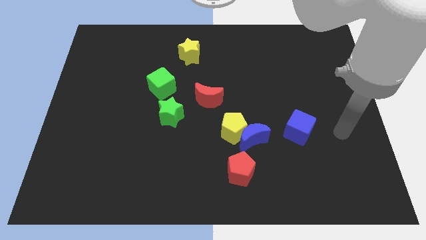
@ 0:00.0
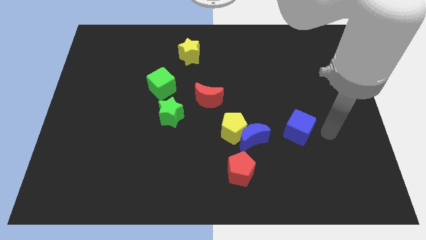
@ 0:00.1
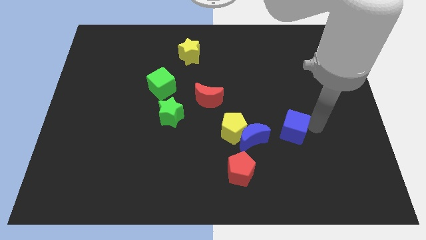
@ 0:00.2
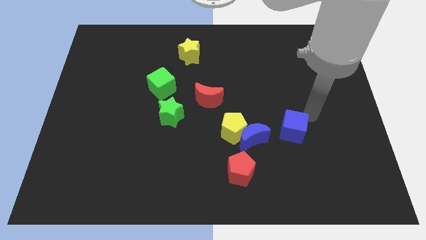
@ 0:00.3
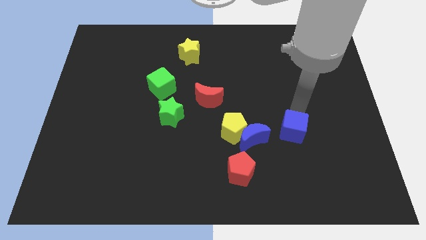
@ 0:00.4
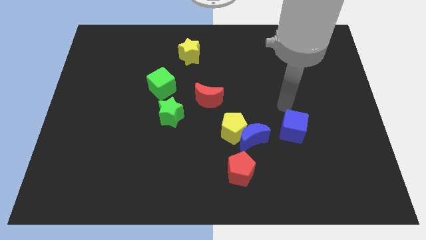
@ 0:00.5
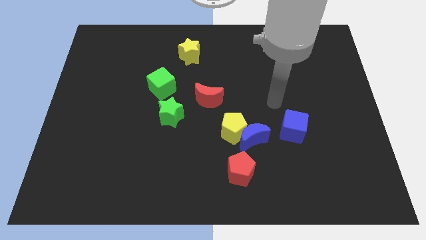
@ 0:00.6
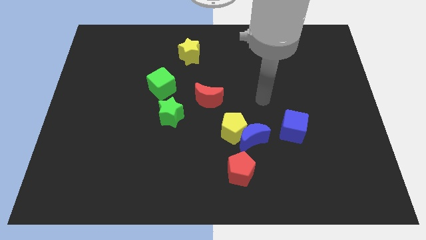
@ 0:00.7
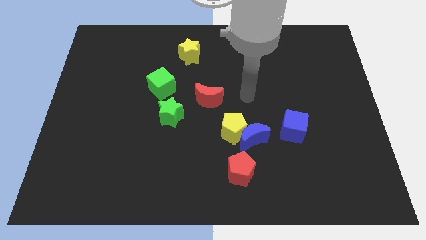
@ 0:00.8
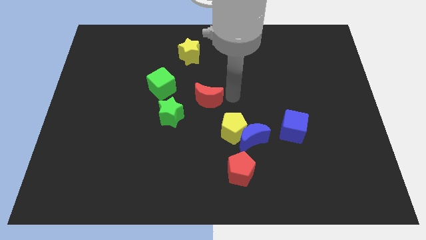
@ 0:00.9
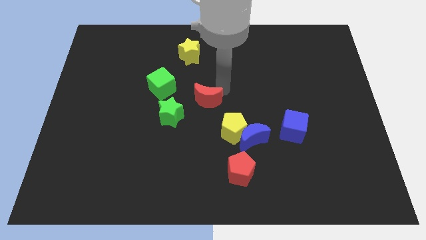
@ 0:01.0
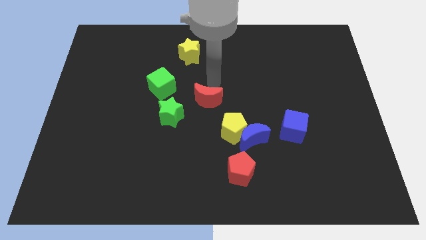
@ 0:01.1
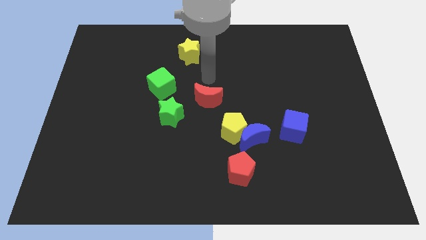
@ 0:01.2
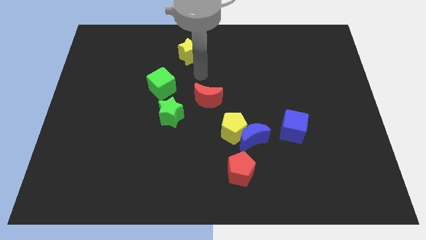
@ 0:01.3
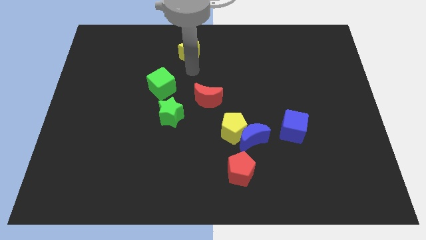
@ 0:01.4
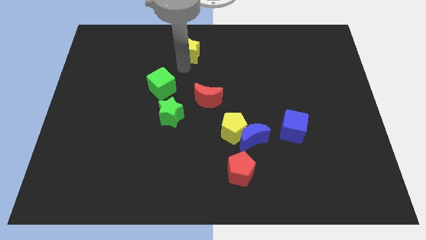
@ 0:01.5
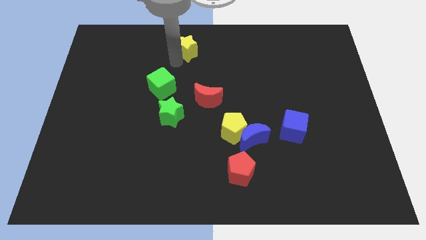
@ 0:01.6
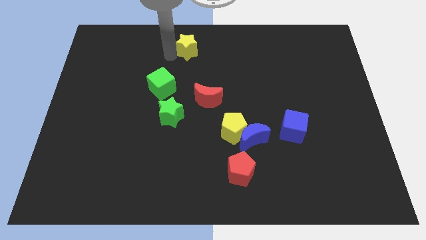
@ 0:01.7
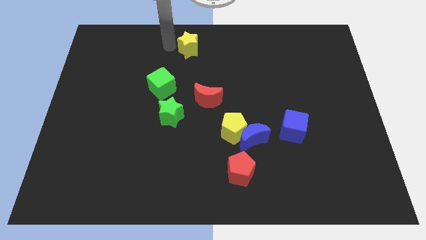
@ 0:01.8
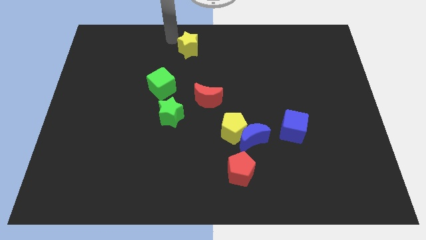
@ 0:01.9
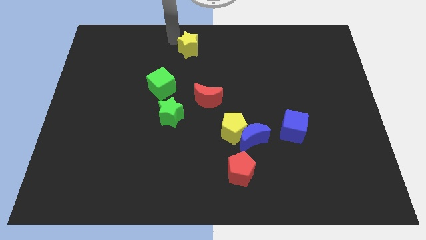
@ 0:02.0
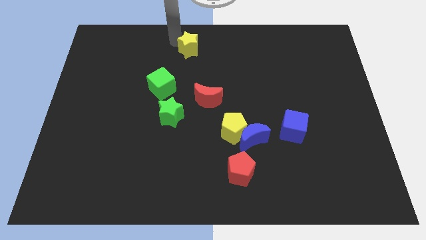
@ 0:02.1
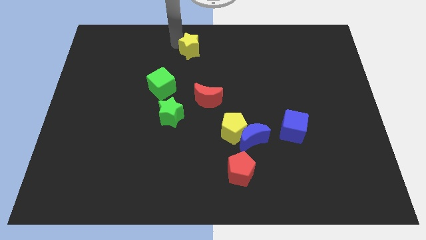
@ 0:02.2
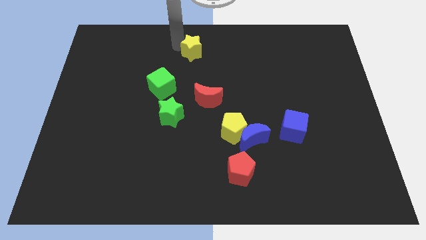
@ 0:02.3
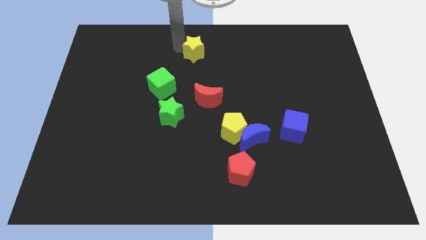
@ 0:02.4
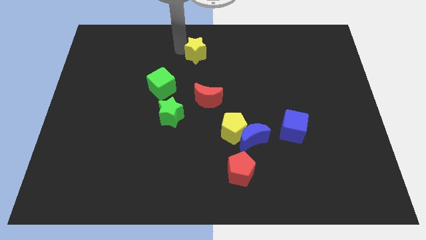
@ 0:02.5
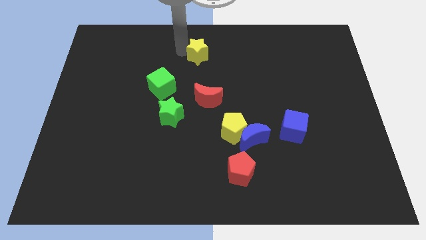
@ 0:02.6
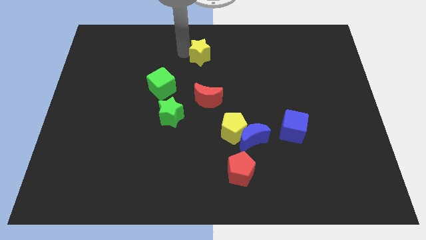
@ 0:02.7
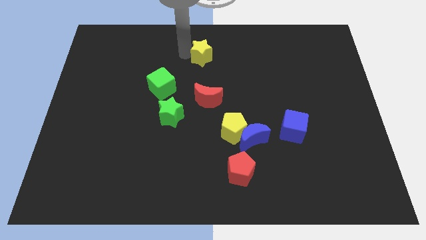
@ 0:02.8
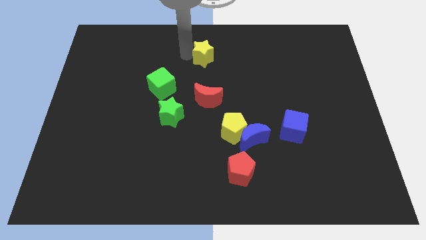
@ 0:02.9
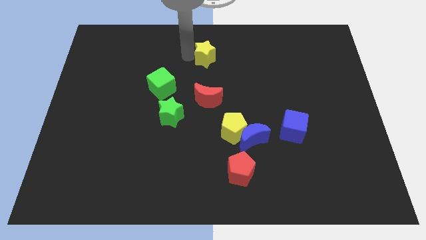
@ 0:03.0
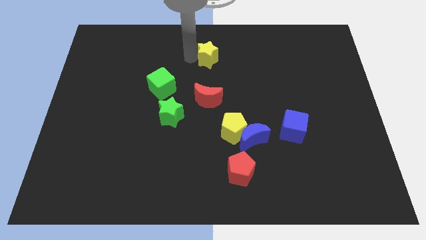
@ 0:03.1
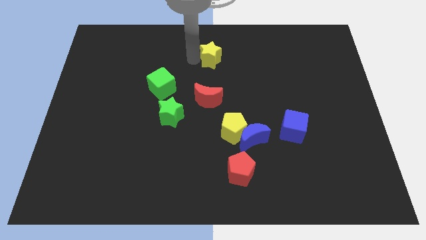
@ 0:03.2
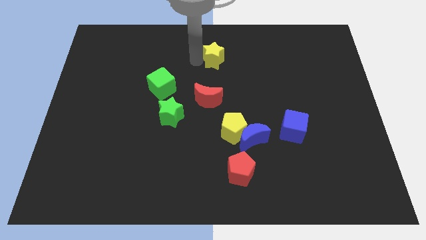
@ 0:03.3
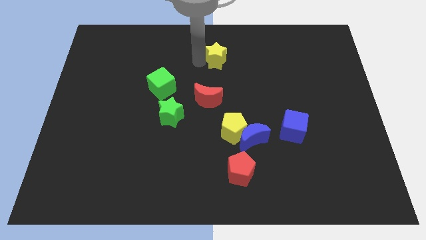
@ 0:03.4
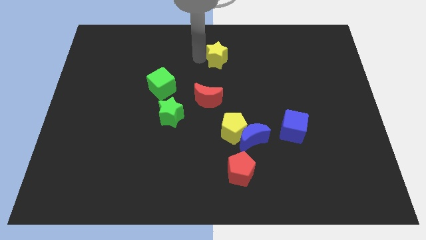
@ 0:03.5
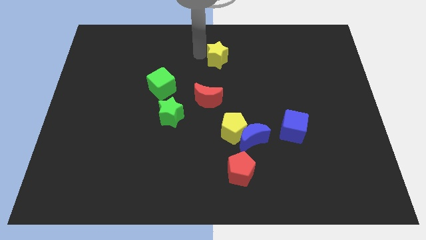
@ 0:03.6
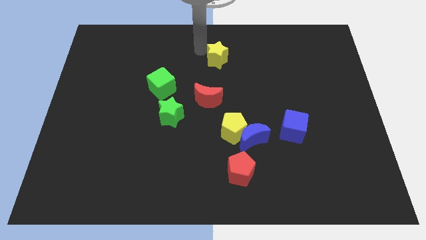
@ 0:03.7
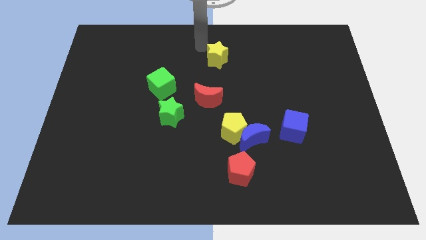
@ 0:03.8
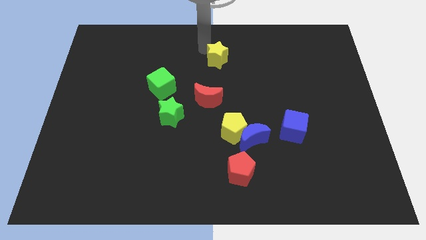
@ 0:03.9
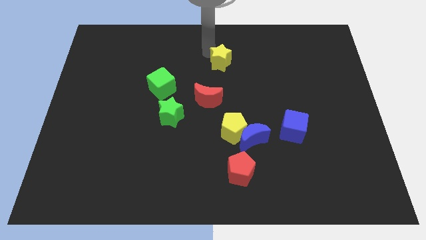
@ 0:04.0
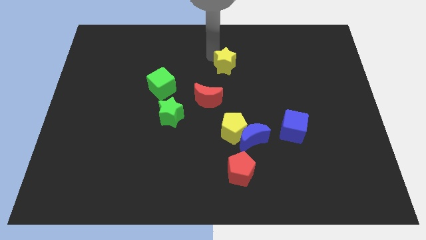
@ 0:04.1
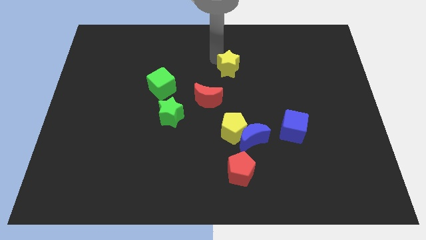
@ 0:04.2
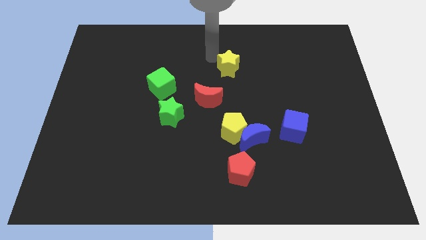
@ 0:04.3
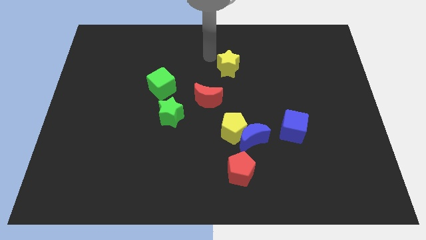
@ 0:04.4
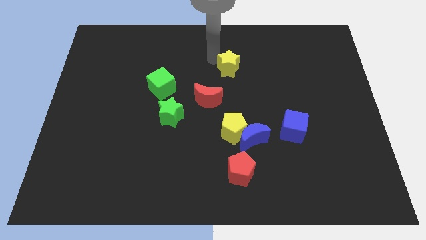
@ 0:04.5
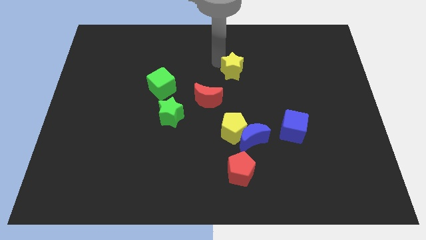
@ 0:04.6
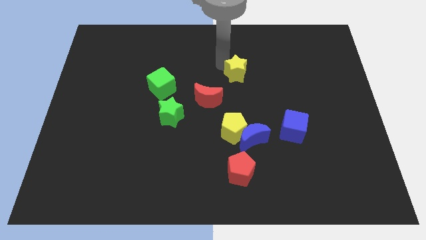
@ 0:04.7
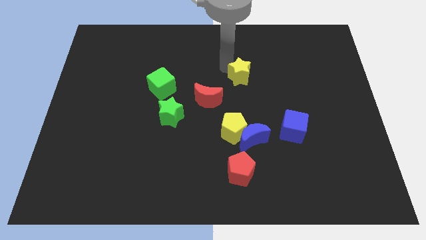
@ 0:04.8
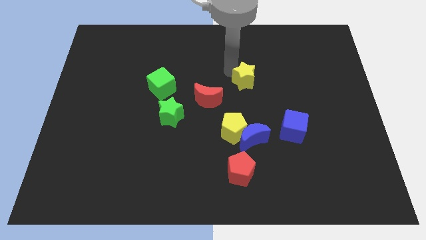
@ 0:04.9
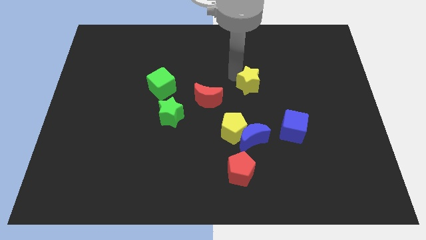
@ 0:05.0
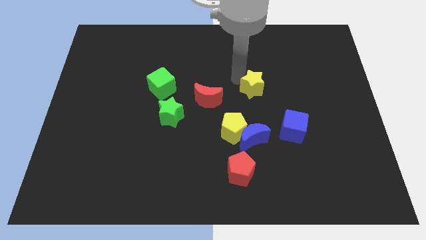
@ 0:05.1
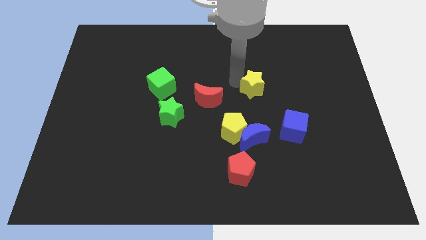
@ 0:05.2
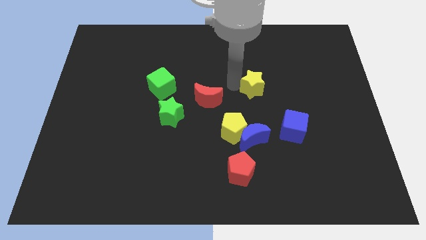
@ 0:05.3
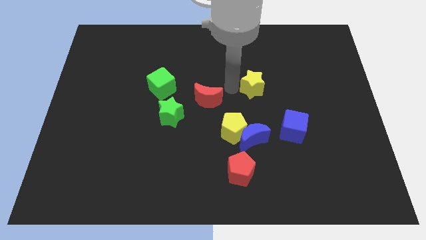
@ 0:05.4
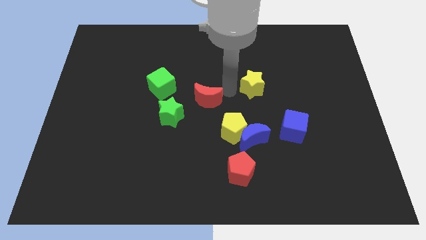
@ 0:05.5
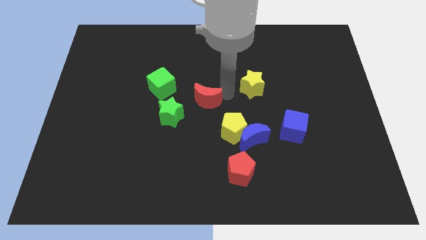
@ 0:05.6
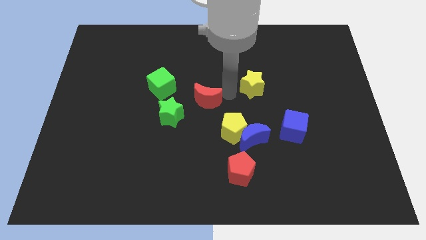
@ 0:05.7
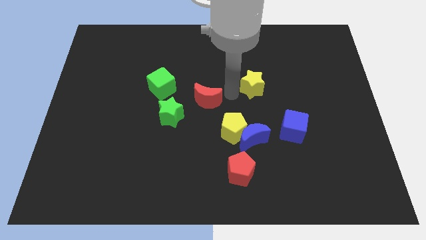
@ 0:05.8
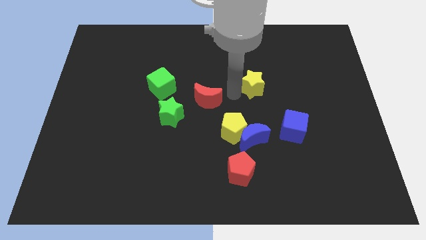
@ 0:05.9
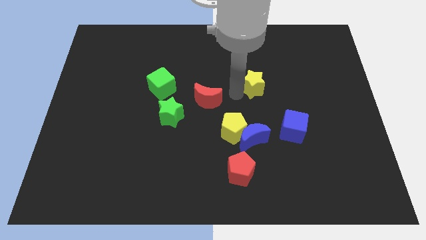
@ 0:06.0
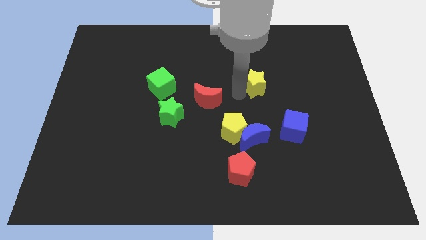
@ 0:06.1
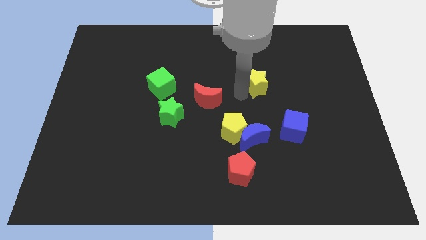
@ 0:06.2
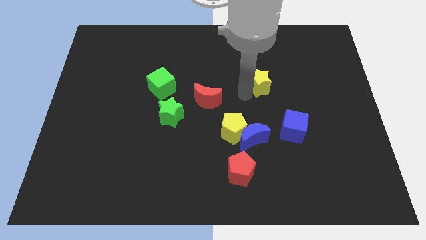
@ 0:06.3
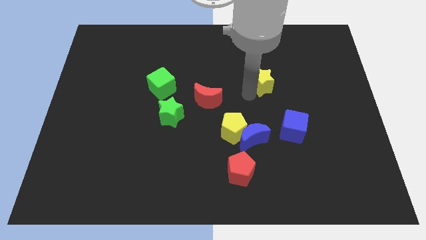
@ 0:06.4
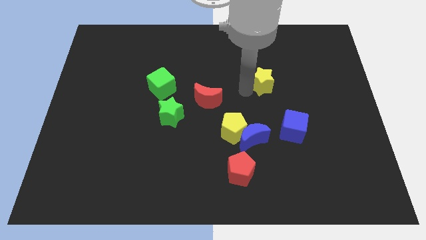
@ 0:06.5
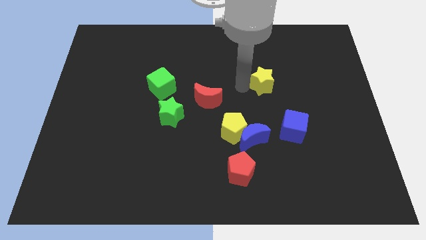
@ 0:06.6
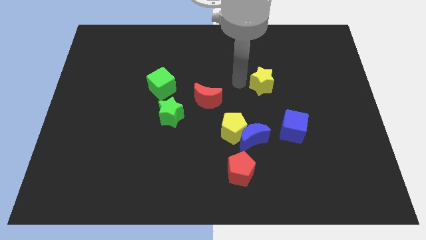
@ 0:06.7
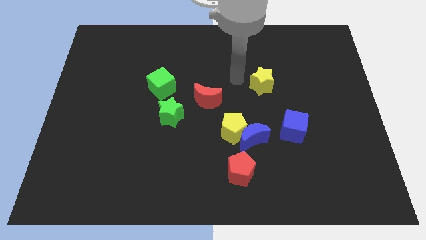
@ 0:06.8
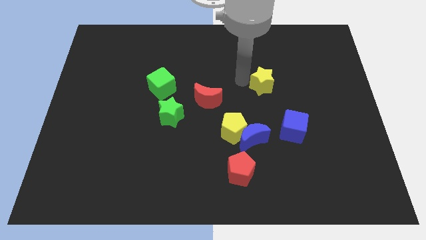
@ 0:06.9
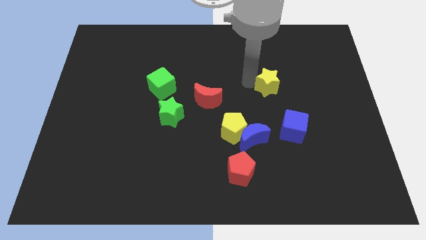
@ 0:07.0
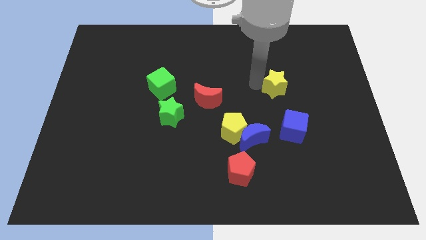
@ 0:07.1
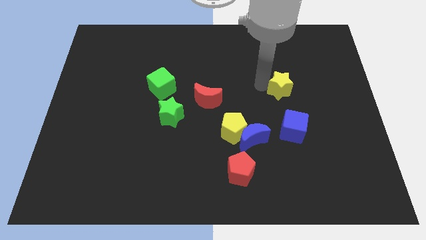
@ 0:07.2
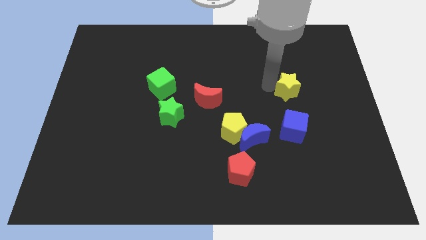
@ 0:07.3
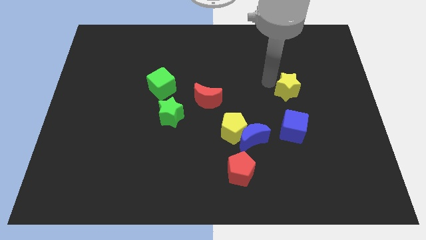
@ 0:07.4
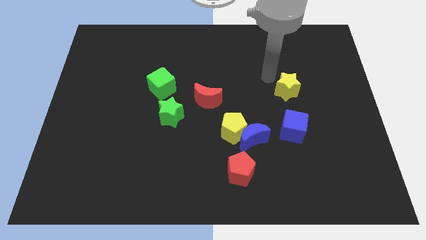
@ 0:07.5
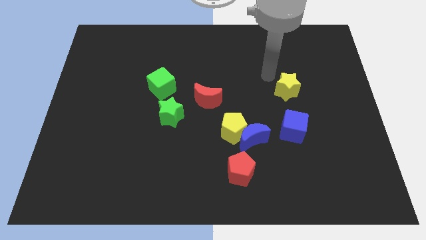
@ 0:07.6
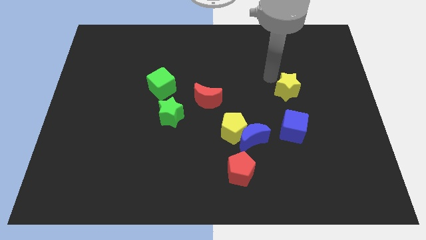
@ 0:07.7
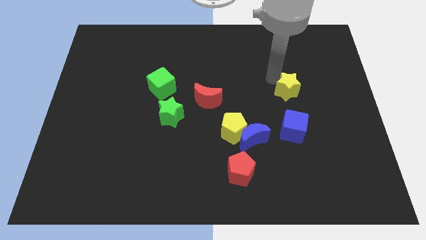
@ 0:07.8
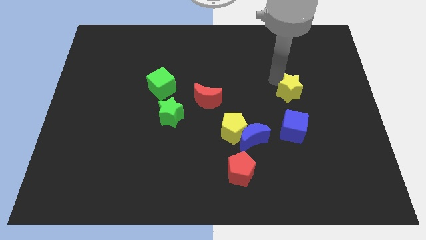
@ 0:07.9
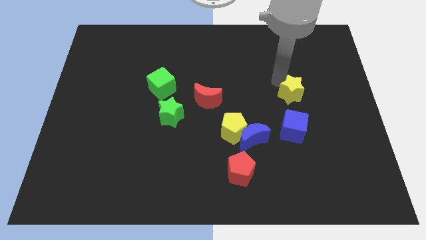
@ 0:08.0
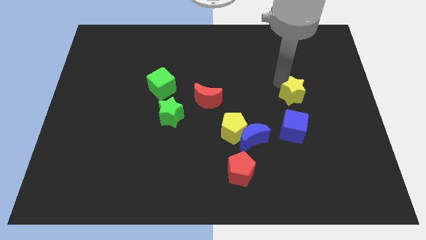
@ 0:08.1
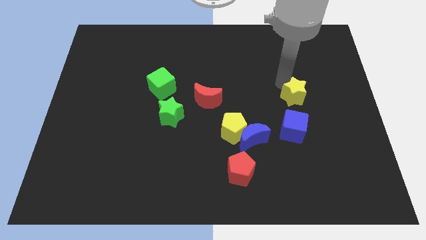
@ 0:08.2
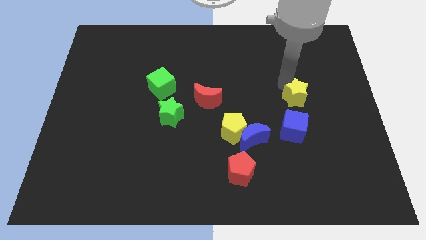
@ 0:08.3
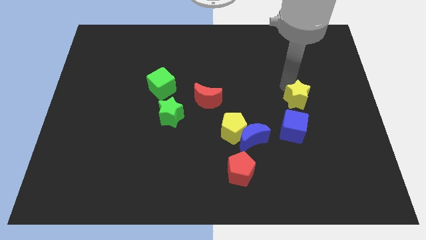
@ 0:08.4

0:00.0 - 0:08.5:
push the yellow star to the top right side of the blue cube
